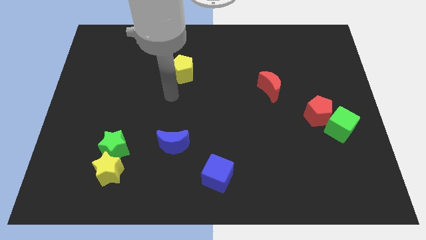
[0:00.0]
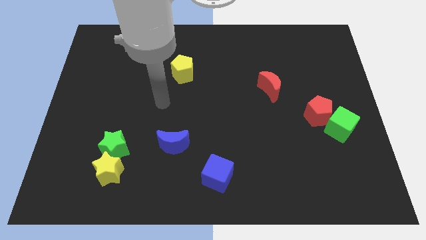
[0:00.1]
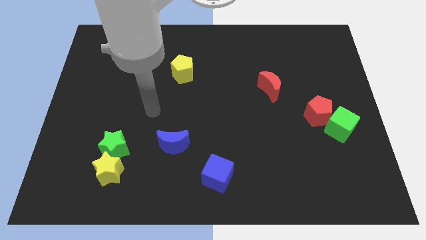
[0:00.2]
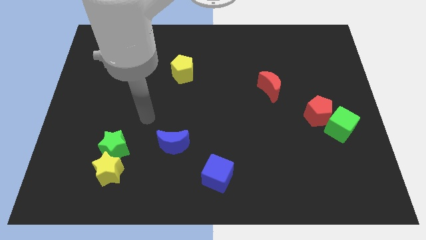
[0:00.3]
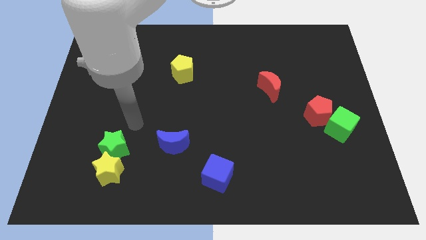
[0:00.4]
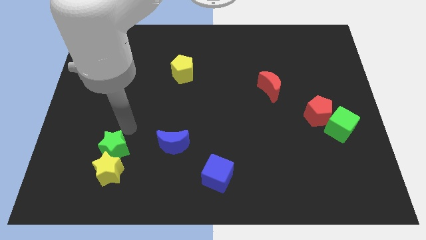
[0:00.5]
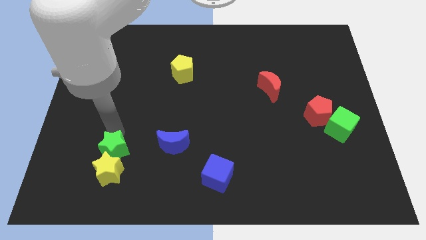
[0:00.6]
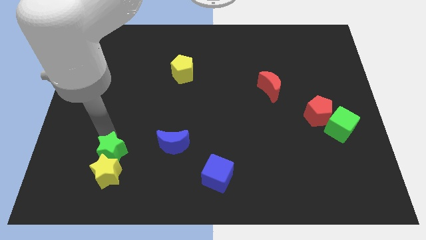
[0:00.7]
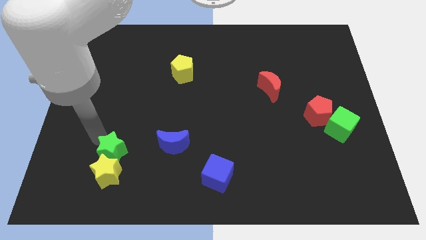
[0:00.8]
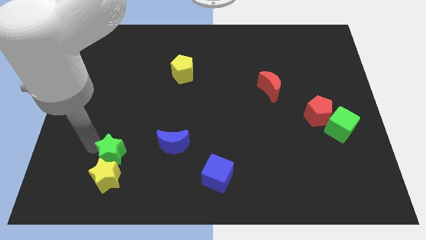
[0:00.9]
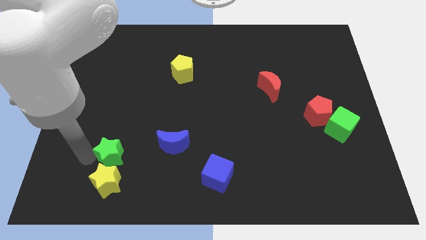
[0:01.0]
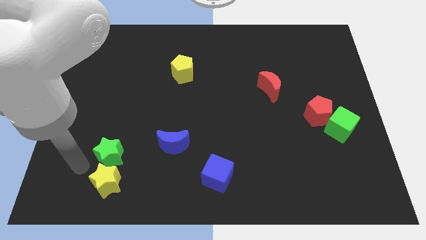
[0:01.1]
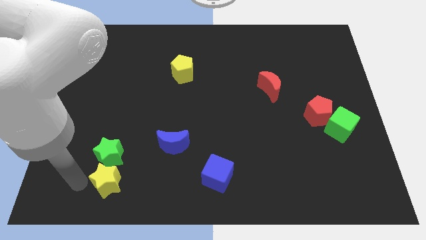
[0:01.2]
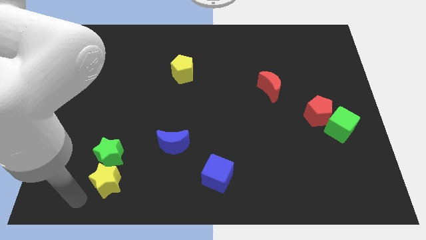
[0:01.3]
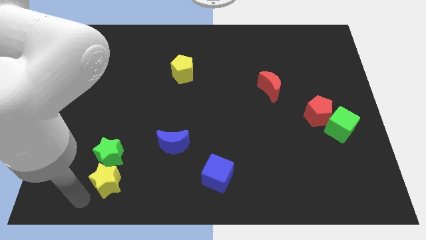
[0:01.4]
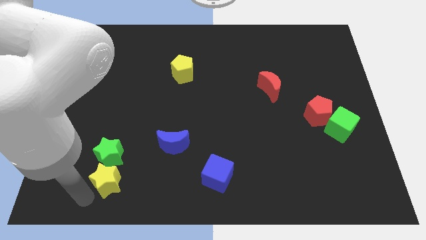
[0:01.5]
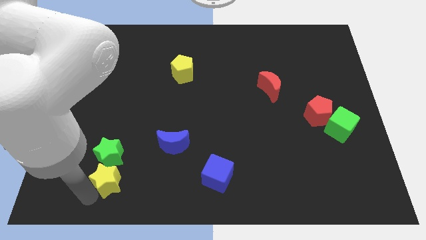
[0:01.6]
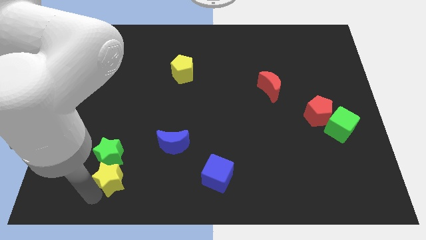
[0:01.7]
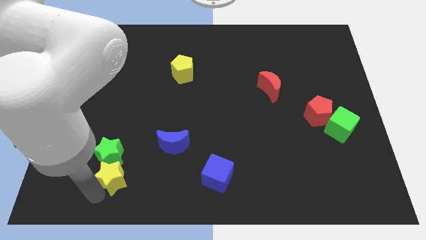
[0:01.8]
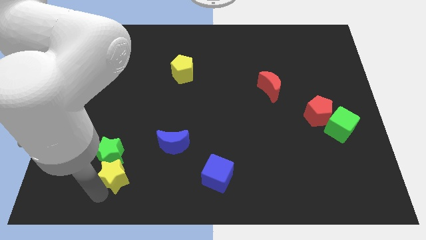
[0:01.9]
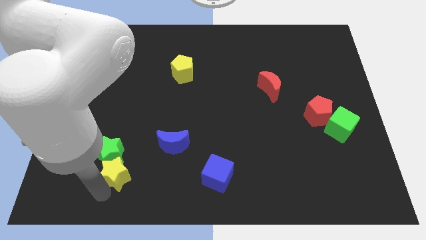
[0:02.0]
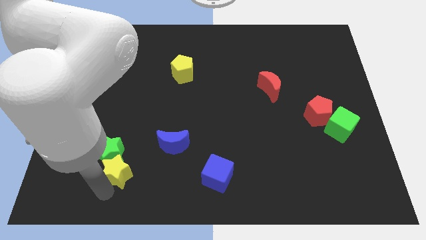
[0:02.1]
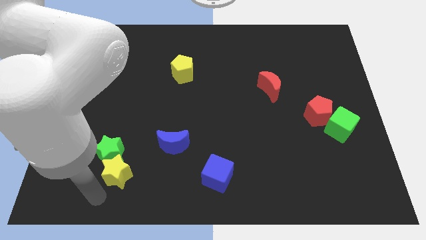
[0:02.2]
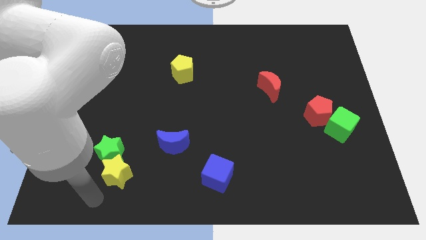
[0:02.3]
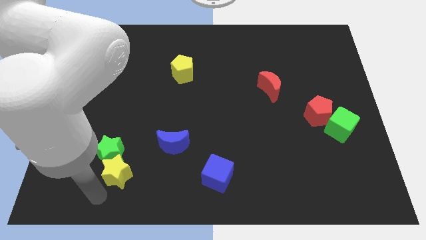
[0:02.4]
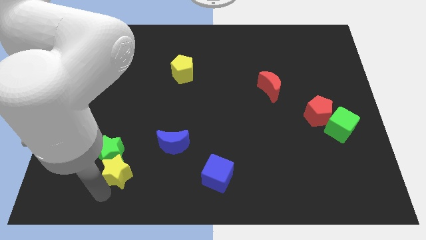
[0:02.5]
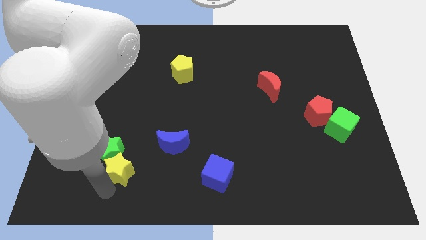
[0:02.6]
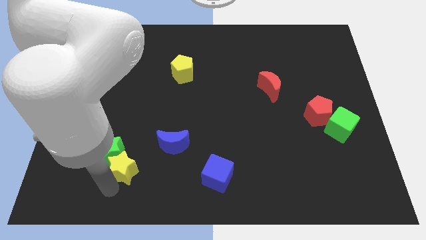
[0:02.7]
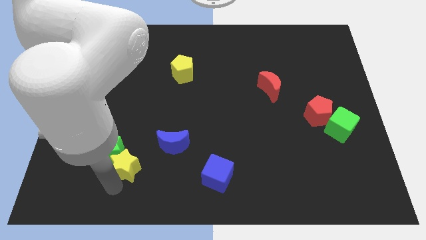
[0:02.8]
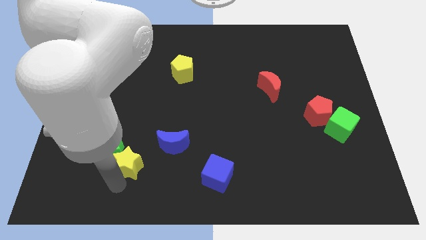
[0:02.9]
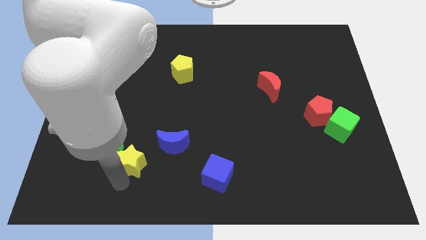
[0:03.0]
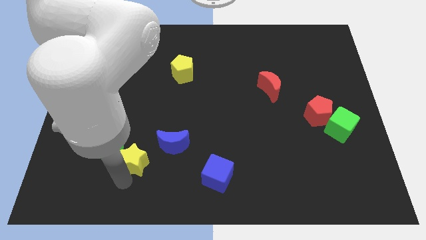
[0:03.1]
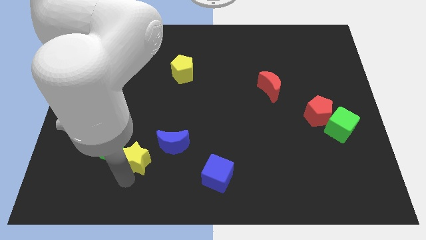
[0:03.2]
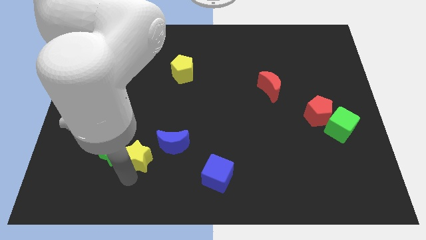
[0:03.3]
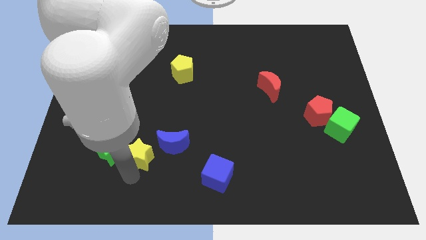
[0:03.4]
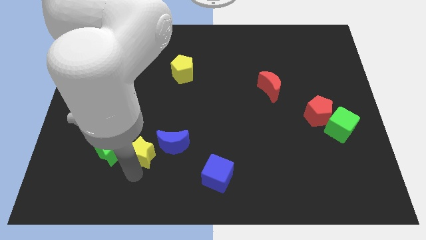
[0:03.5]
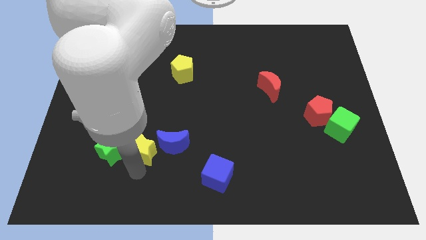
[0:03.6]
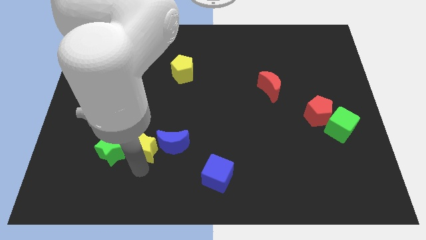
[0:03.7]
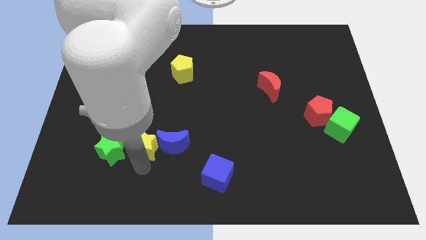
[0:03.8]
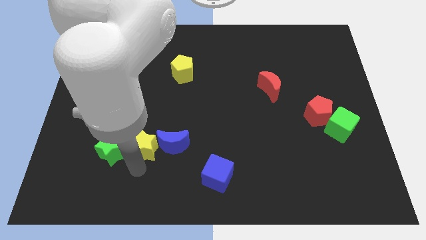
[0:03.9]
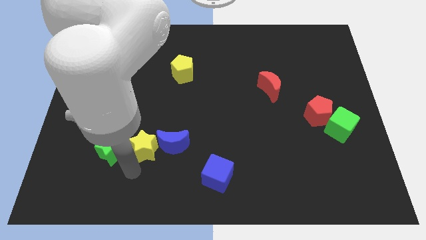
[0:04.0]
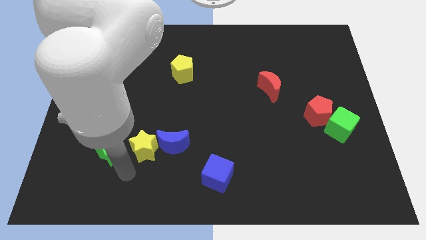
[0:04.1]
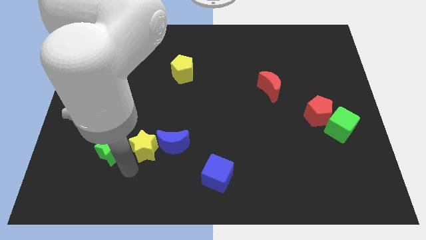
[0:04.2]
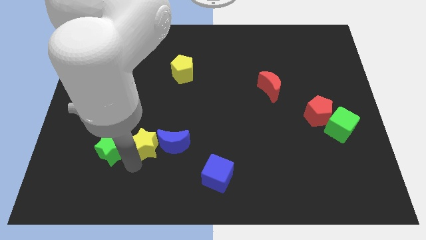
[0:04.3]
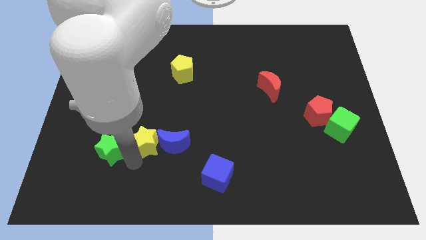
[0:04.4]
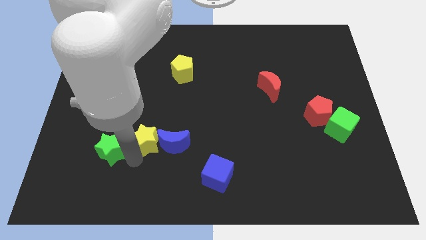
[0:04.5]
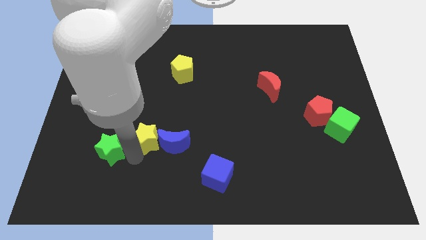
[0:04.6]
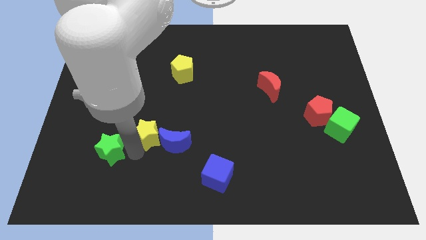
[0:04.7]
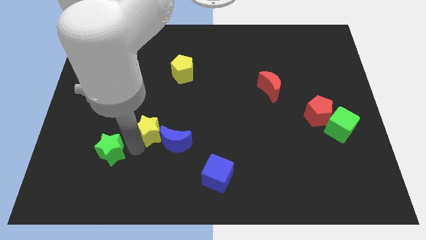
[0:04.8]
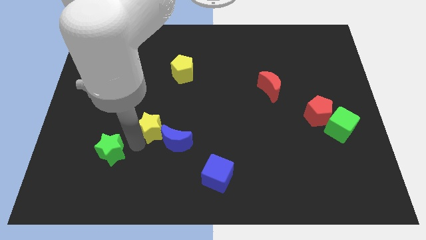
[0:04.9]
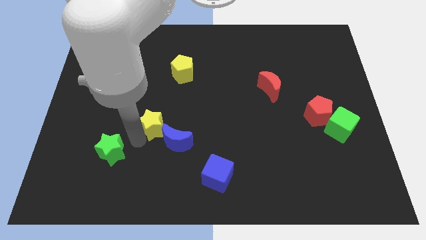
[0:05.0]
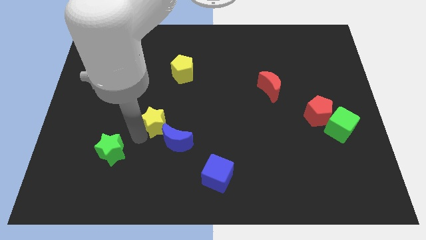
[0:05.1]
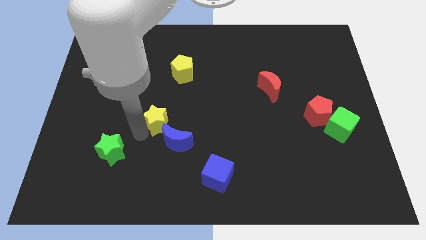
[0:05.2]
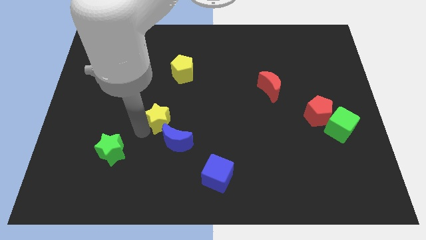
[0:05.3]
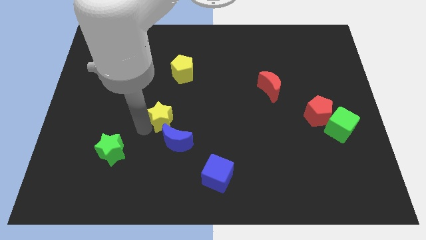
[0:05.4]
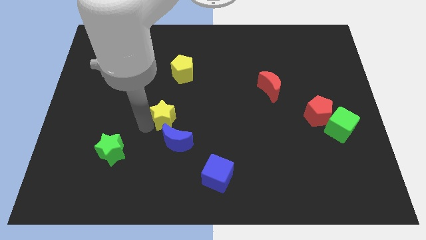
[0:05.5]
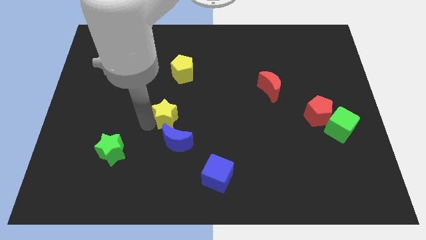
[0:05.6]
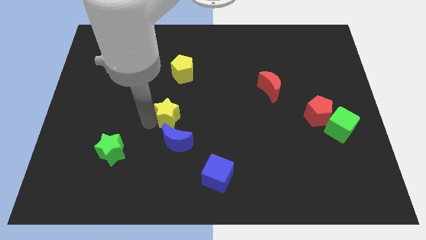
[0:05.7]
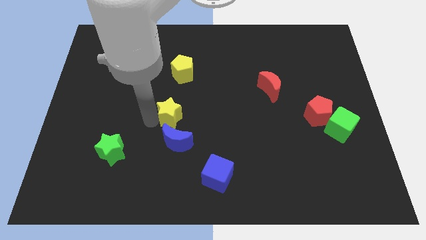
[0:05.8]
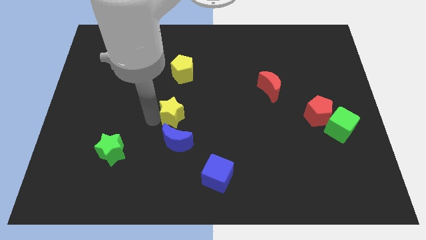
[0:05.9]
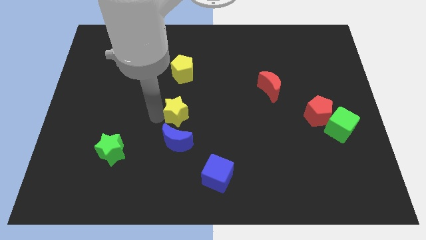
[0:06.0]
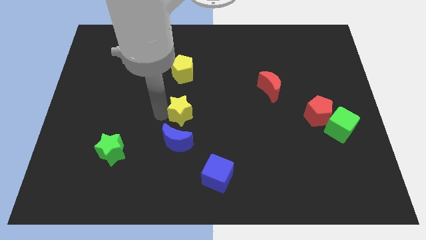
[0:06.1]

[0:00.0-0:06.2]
push the yellow star diagonally upwards and right

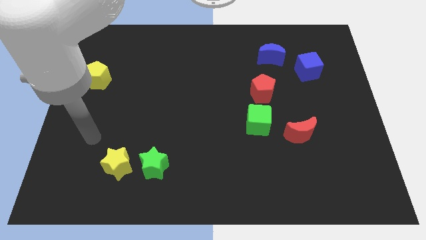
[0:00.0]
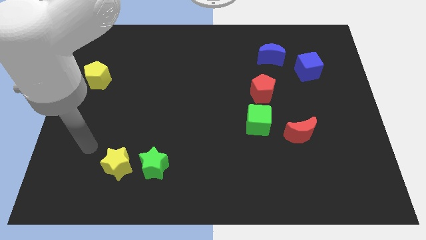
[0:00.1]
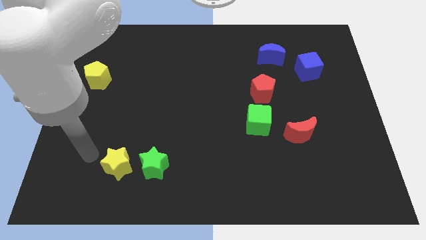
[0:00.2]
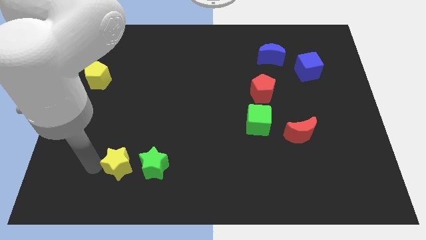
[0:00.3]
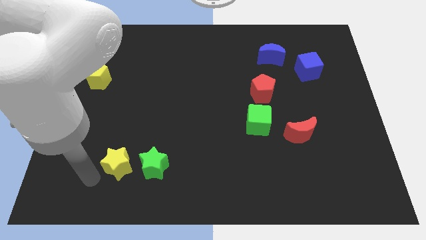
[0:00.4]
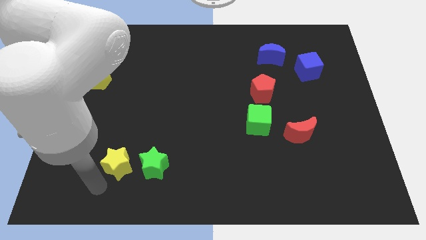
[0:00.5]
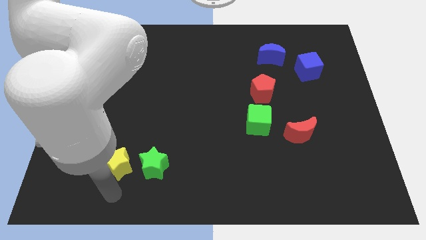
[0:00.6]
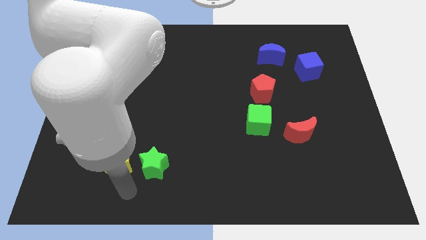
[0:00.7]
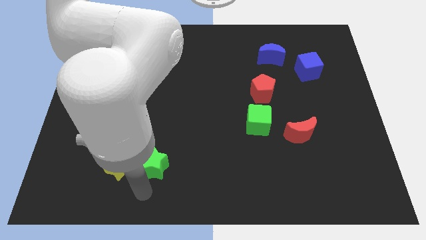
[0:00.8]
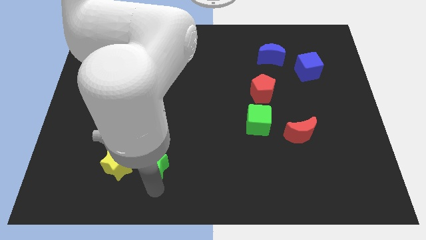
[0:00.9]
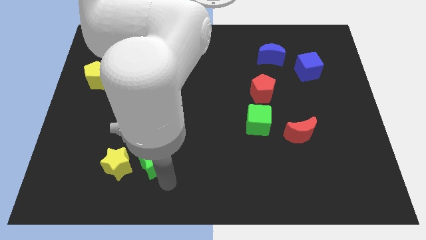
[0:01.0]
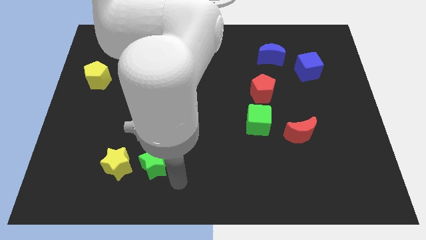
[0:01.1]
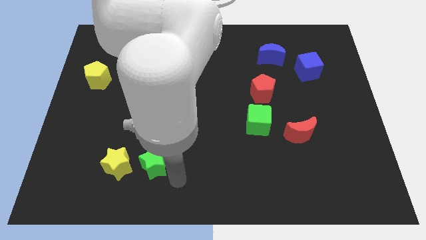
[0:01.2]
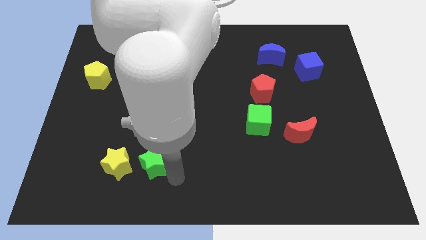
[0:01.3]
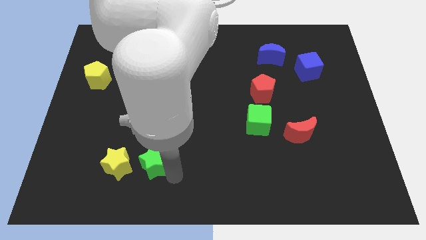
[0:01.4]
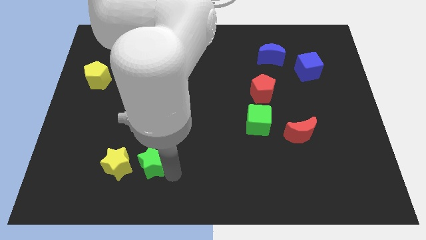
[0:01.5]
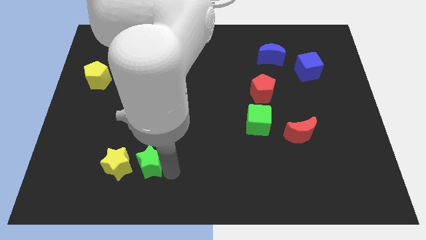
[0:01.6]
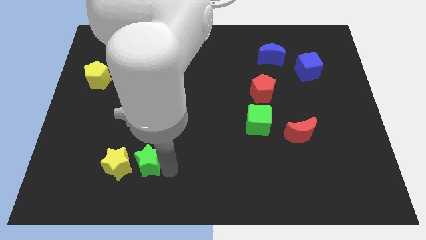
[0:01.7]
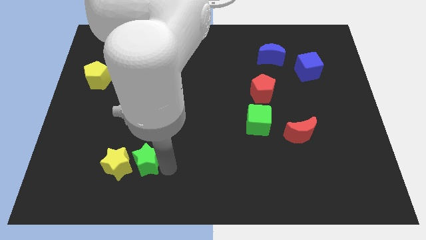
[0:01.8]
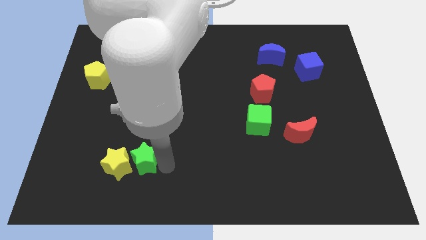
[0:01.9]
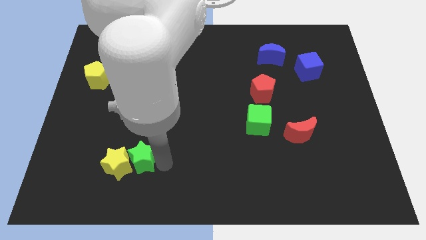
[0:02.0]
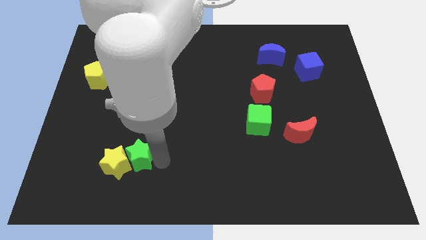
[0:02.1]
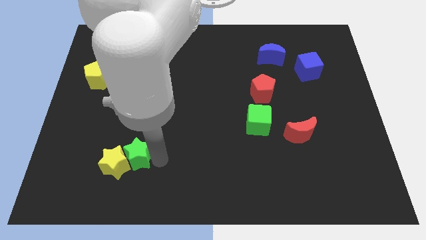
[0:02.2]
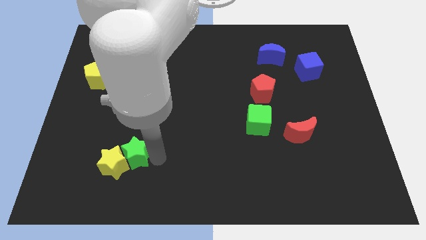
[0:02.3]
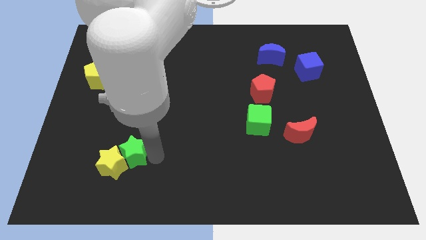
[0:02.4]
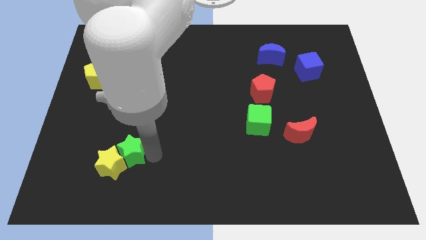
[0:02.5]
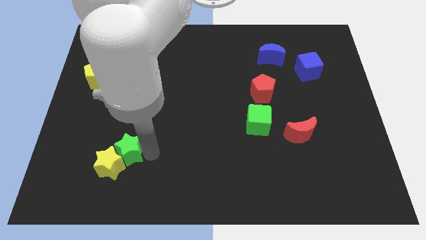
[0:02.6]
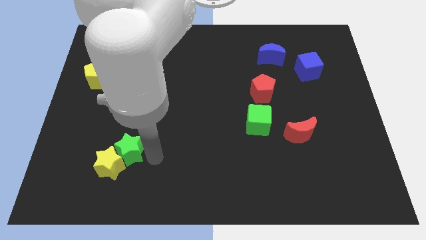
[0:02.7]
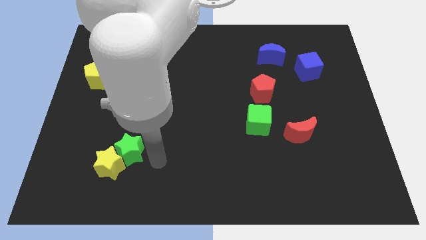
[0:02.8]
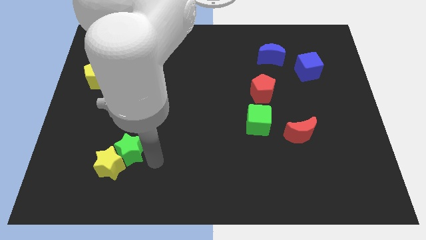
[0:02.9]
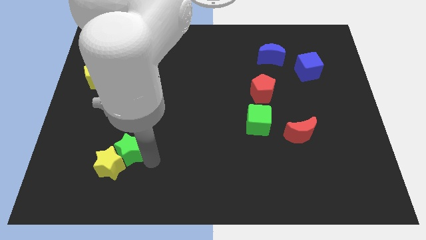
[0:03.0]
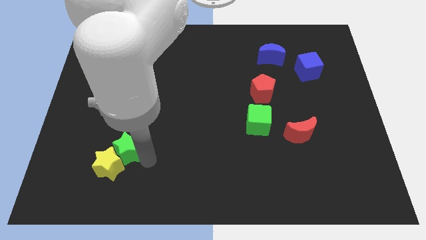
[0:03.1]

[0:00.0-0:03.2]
move the green star upwards and then to the left a bit
